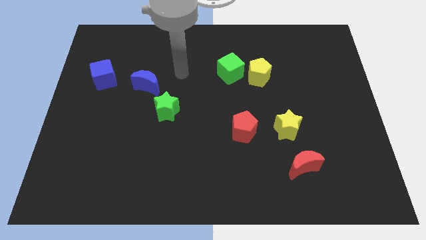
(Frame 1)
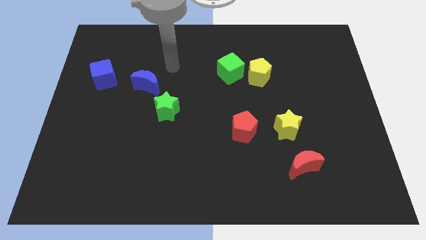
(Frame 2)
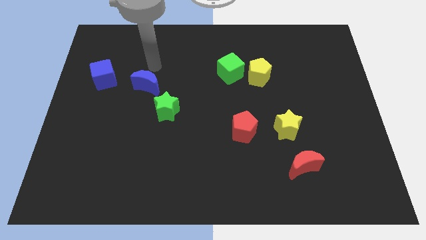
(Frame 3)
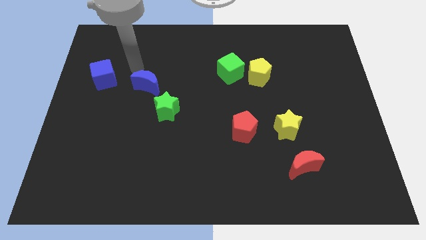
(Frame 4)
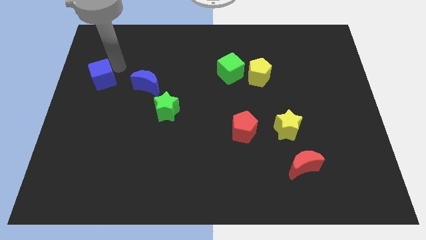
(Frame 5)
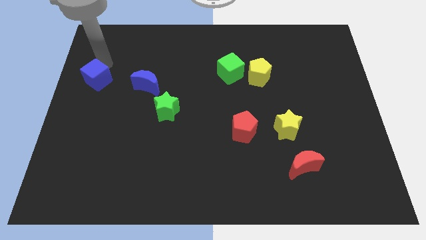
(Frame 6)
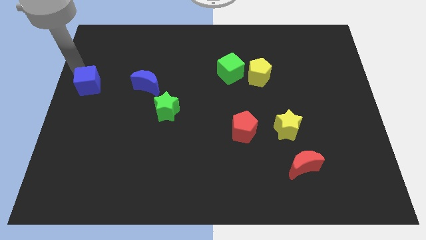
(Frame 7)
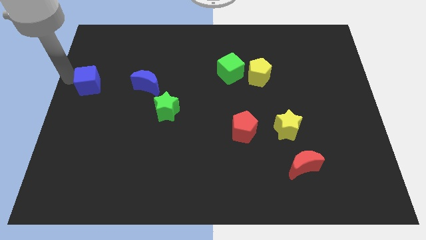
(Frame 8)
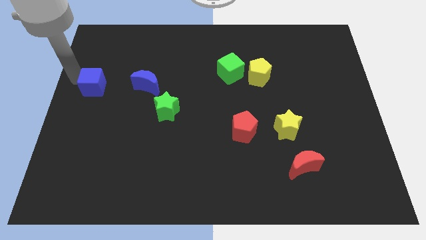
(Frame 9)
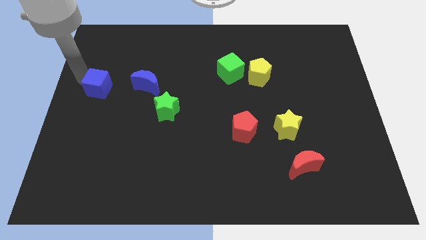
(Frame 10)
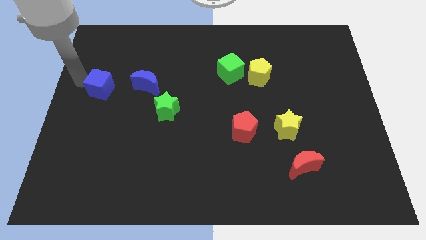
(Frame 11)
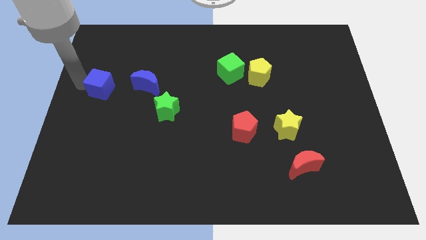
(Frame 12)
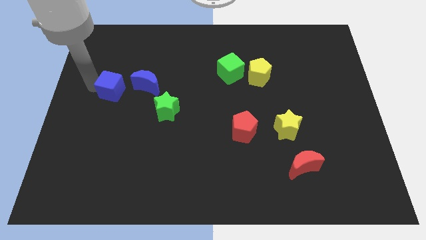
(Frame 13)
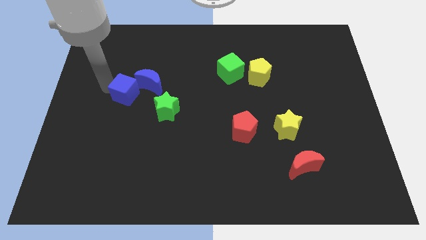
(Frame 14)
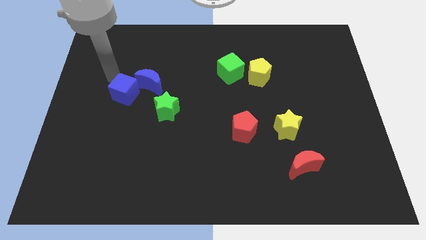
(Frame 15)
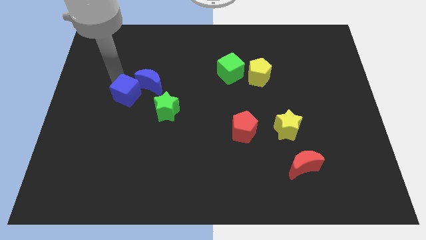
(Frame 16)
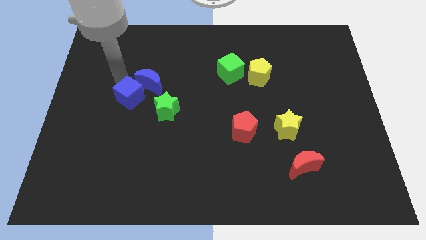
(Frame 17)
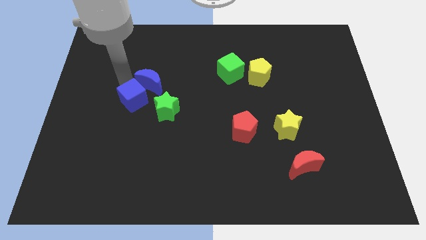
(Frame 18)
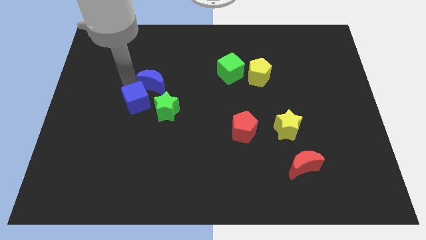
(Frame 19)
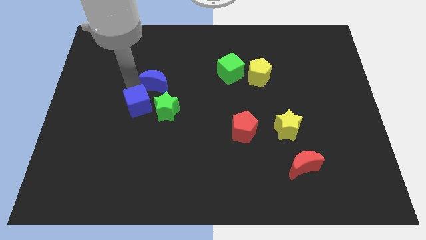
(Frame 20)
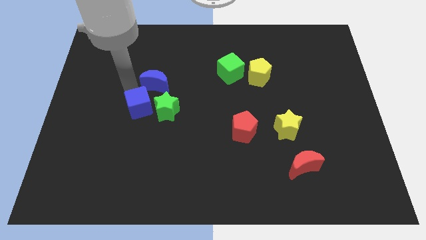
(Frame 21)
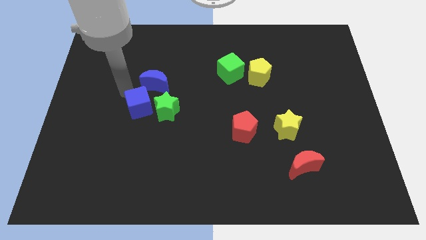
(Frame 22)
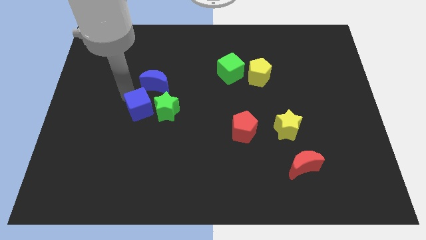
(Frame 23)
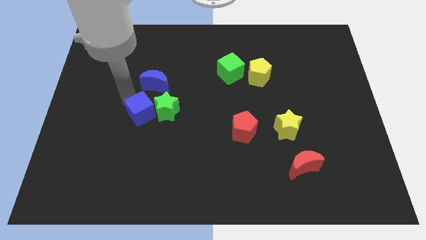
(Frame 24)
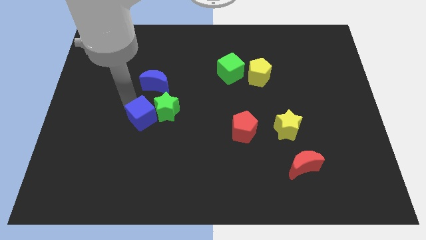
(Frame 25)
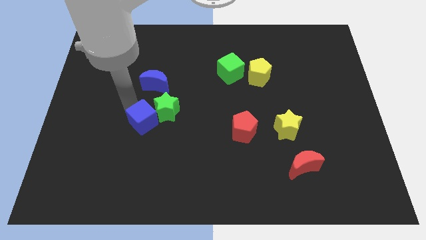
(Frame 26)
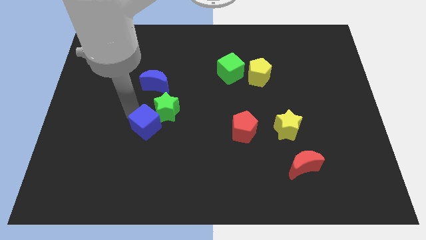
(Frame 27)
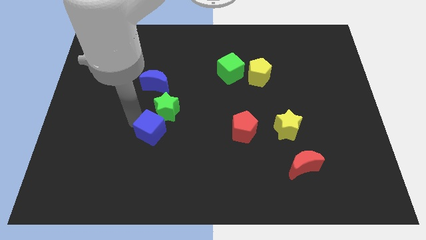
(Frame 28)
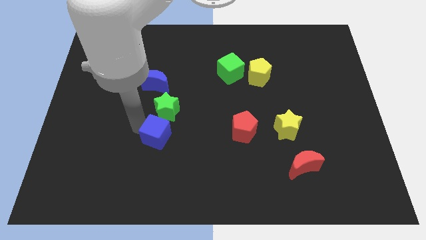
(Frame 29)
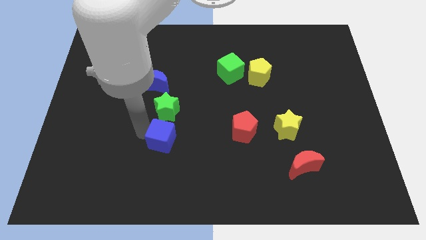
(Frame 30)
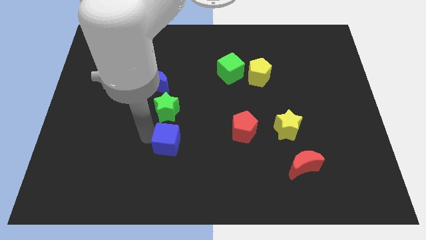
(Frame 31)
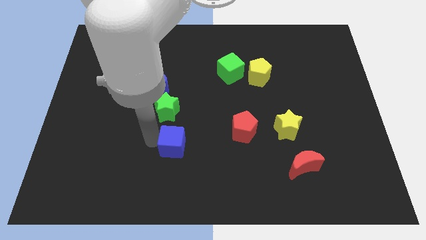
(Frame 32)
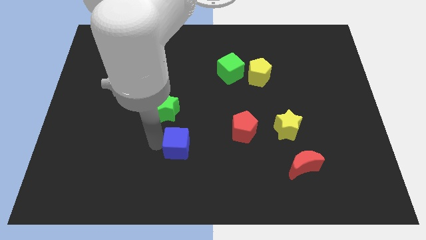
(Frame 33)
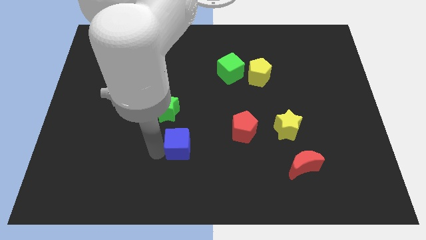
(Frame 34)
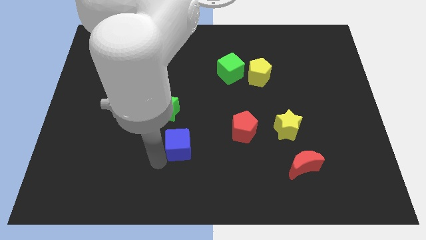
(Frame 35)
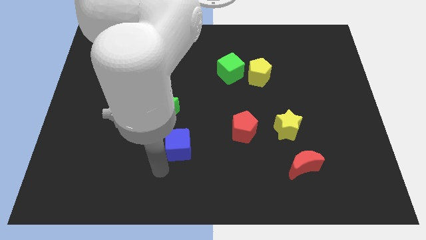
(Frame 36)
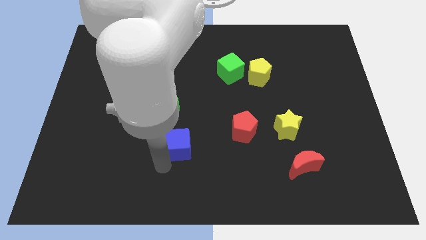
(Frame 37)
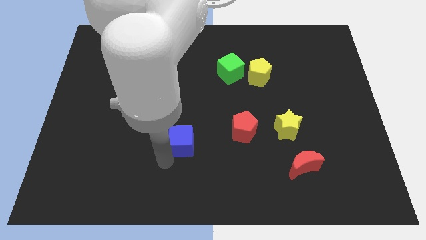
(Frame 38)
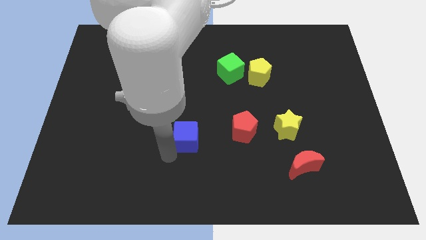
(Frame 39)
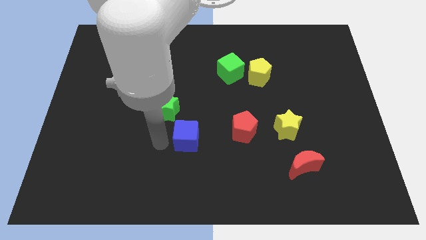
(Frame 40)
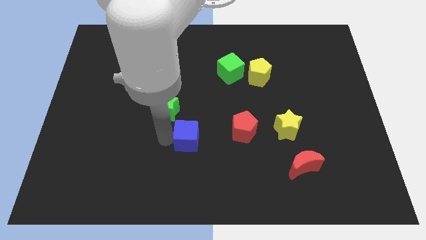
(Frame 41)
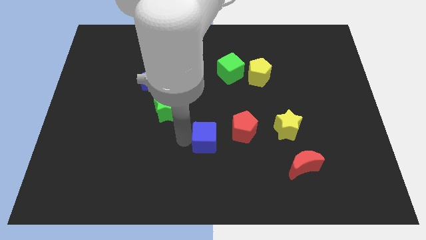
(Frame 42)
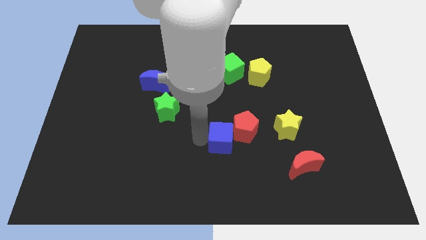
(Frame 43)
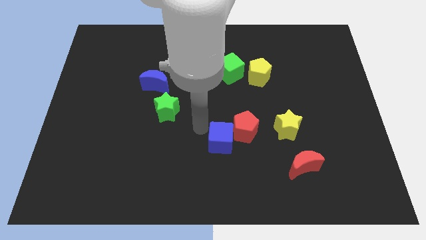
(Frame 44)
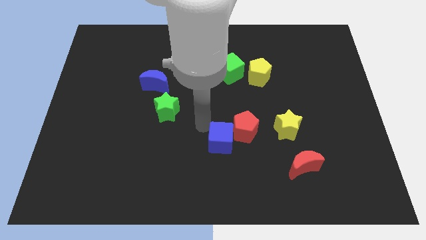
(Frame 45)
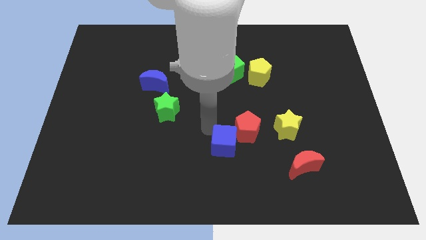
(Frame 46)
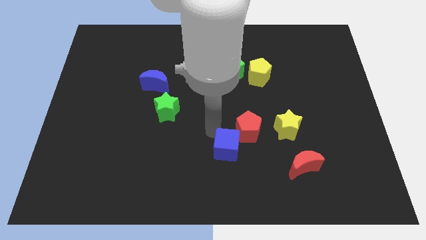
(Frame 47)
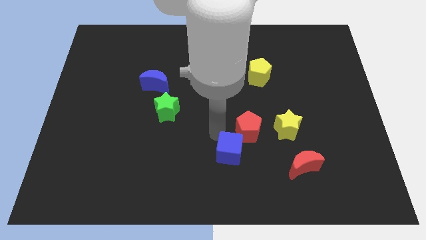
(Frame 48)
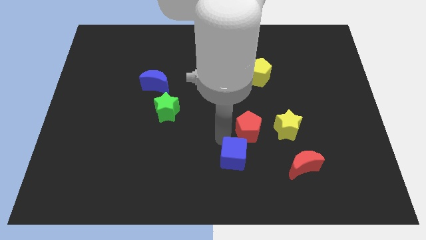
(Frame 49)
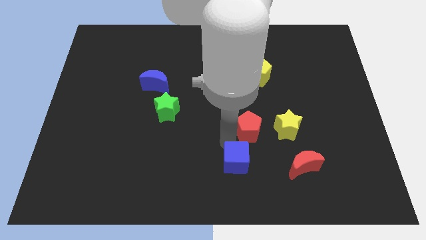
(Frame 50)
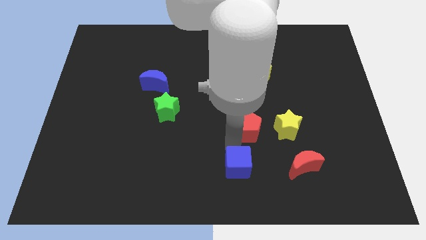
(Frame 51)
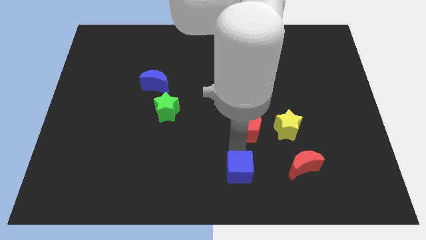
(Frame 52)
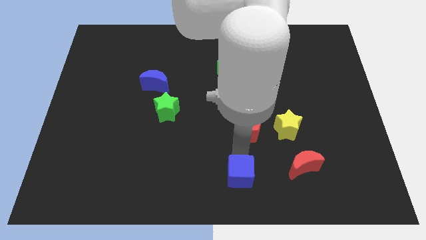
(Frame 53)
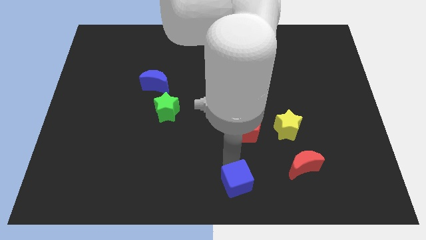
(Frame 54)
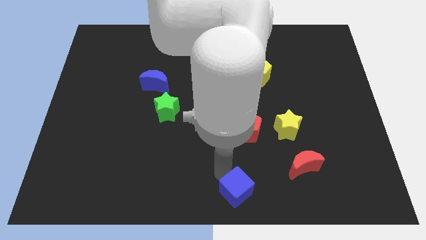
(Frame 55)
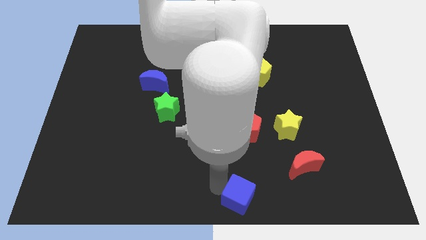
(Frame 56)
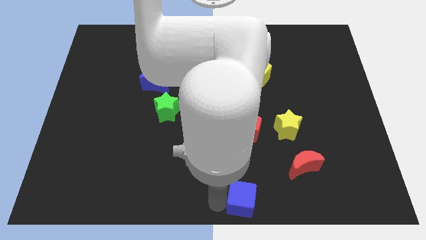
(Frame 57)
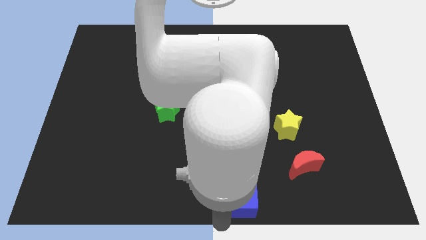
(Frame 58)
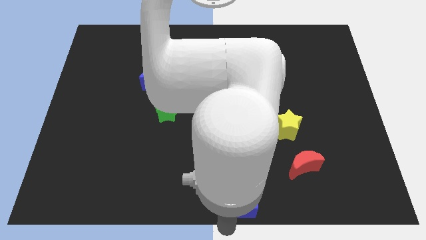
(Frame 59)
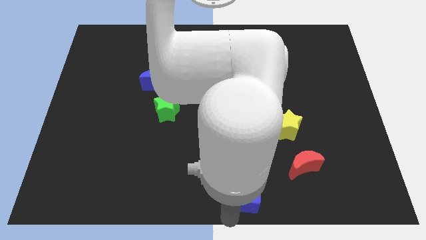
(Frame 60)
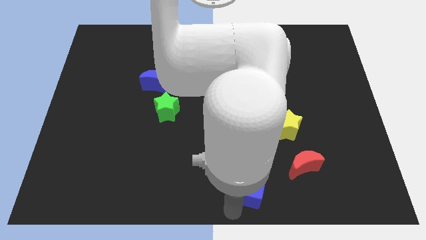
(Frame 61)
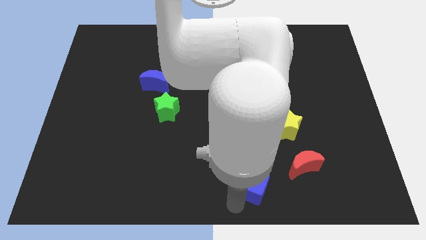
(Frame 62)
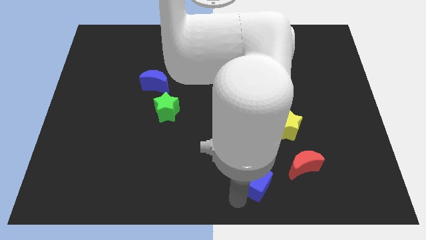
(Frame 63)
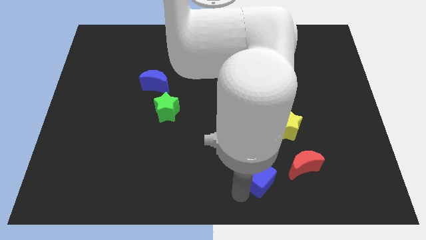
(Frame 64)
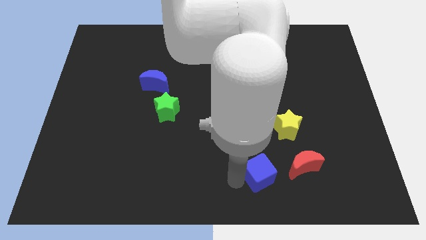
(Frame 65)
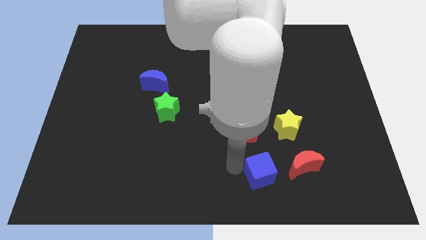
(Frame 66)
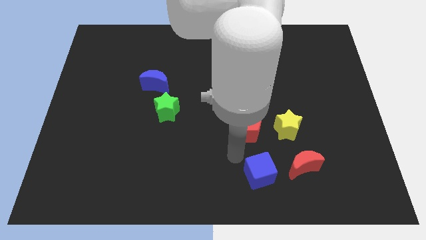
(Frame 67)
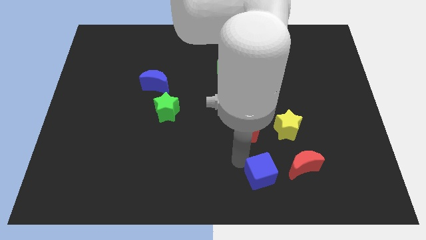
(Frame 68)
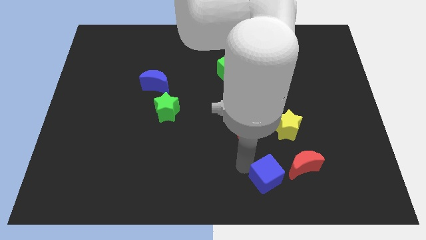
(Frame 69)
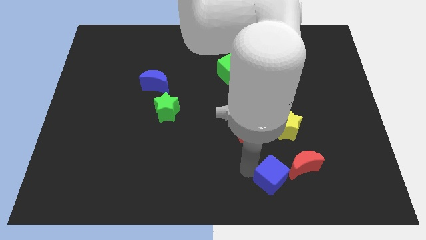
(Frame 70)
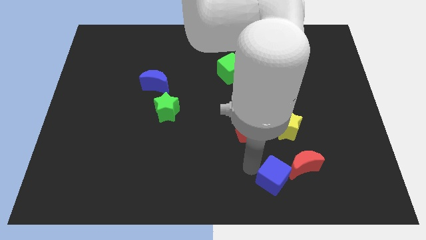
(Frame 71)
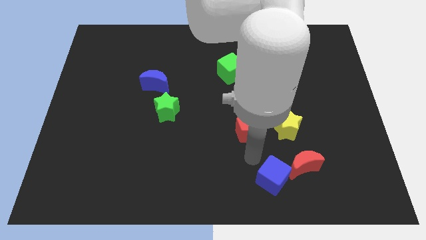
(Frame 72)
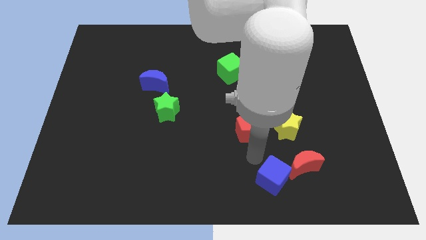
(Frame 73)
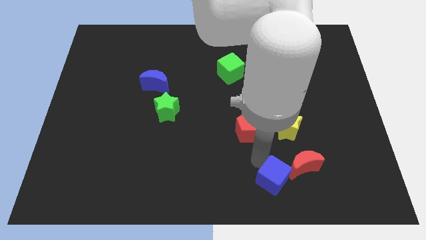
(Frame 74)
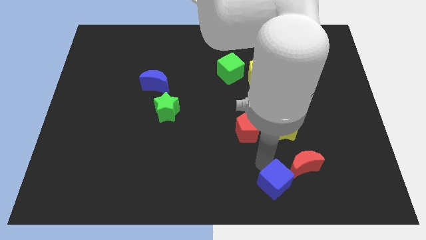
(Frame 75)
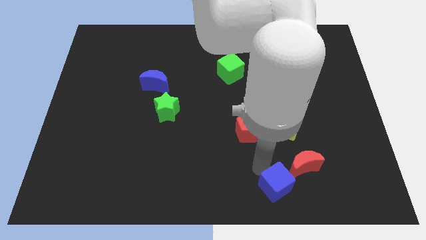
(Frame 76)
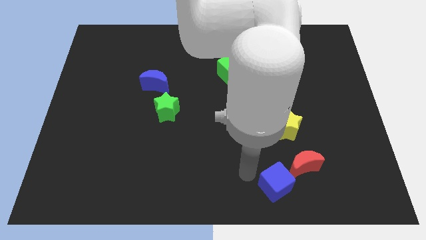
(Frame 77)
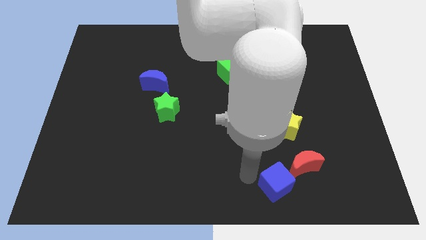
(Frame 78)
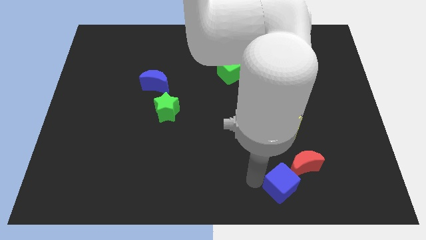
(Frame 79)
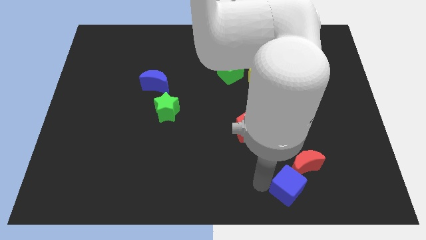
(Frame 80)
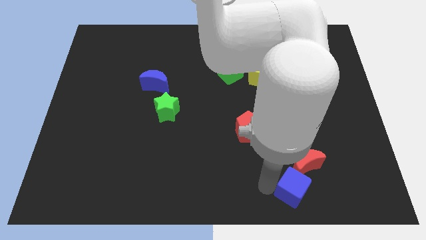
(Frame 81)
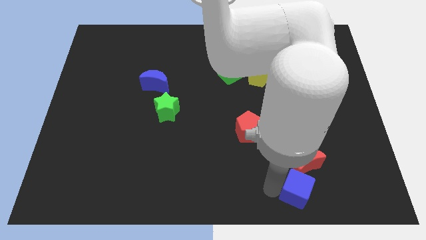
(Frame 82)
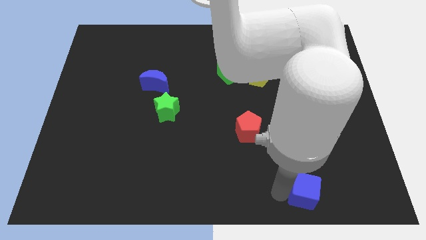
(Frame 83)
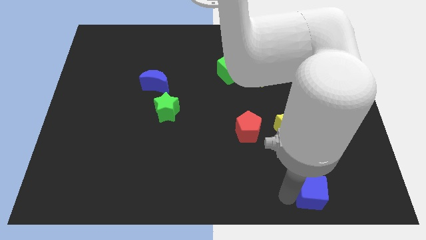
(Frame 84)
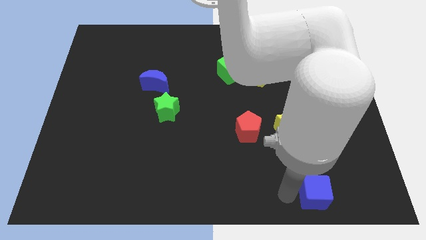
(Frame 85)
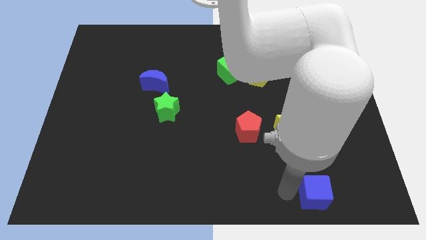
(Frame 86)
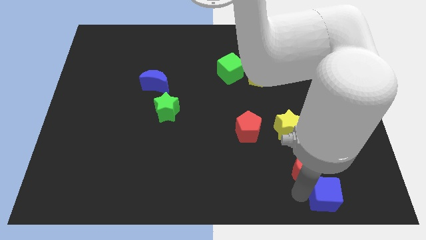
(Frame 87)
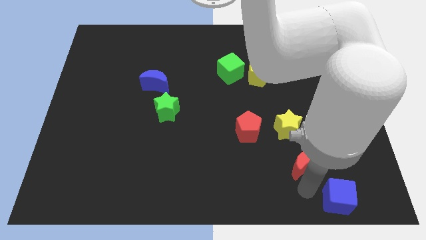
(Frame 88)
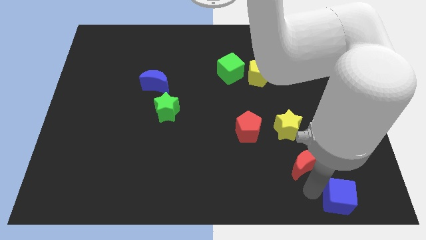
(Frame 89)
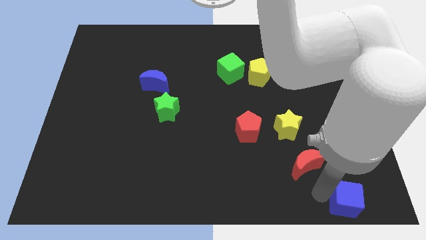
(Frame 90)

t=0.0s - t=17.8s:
move the blue cube to the bottom right
